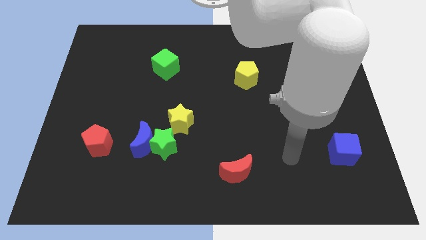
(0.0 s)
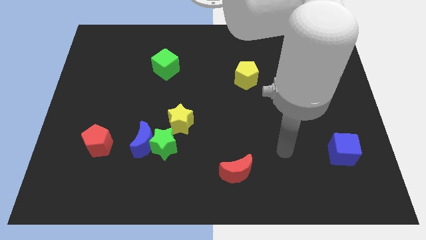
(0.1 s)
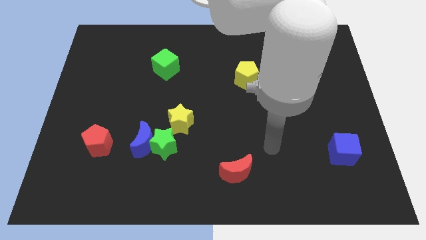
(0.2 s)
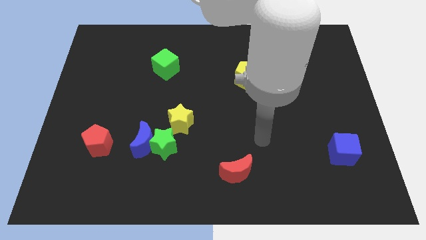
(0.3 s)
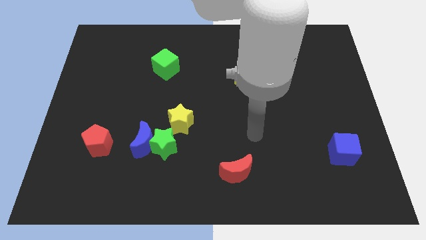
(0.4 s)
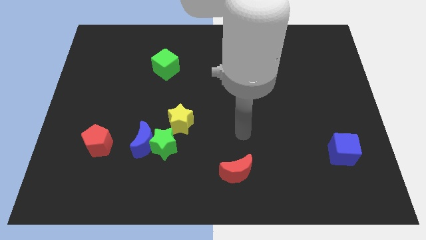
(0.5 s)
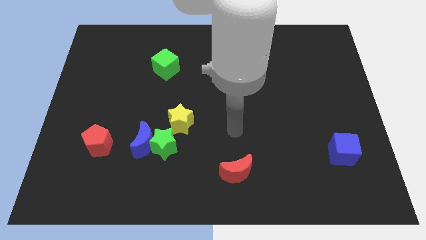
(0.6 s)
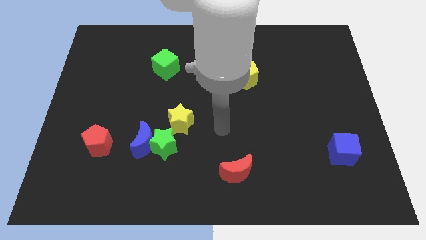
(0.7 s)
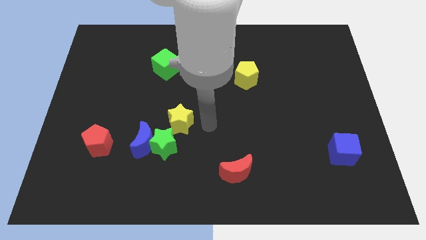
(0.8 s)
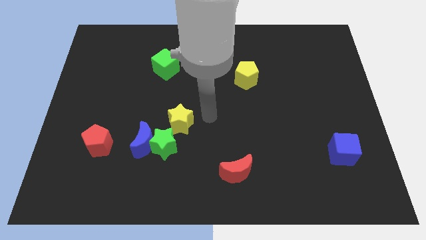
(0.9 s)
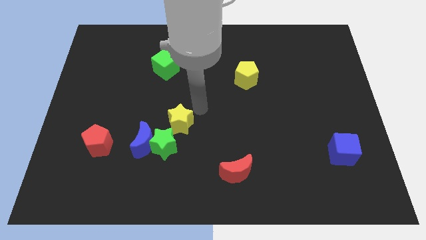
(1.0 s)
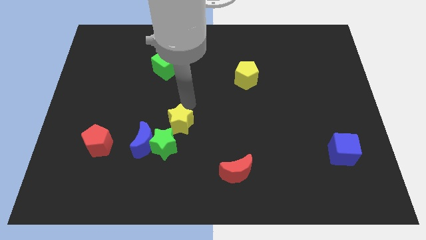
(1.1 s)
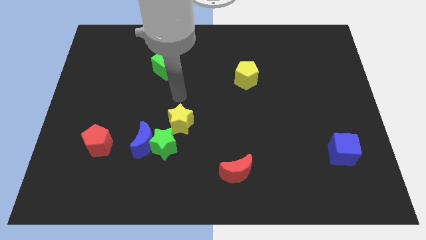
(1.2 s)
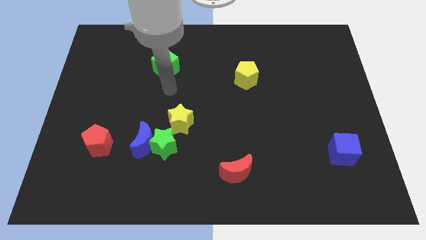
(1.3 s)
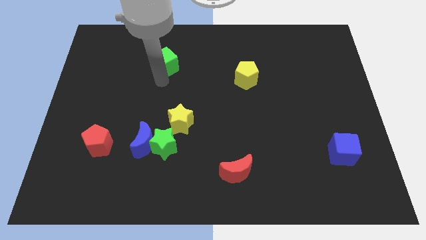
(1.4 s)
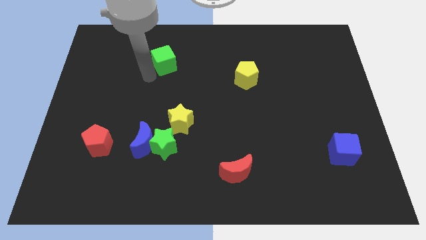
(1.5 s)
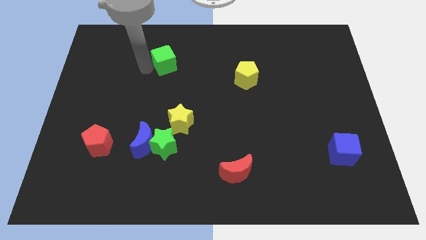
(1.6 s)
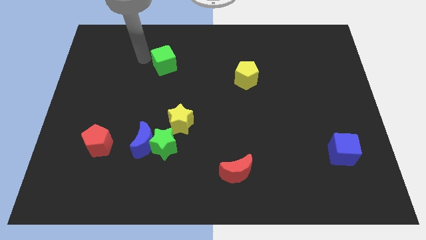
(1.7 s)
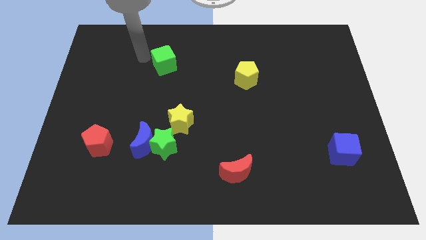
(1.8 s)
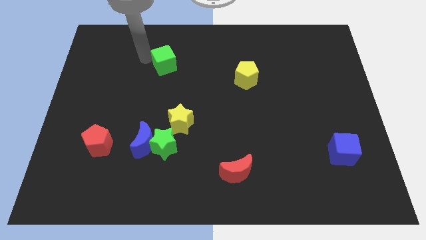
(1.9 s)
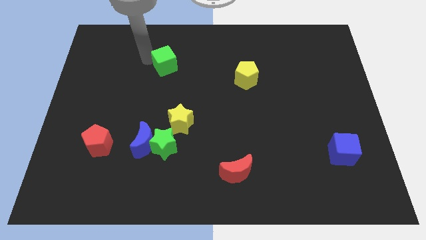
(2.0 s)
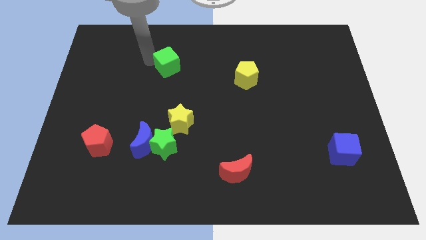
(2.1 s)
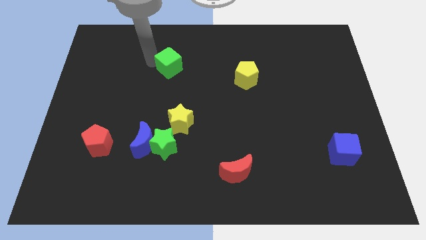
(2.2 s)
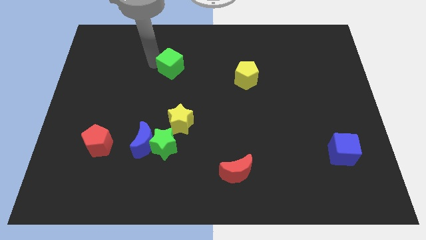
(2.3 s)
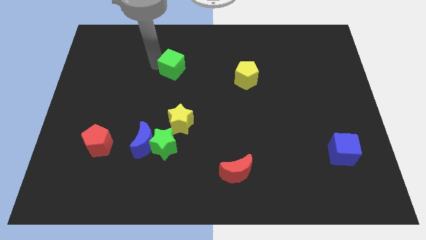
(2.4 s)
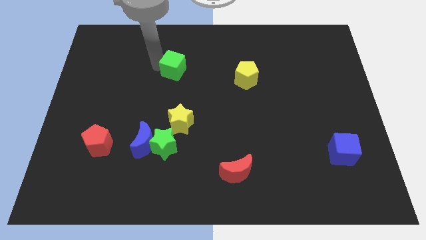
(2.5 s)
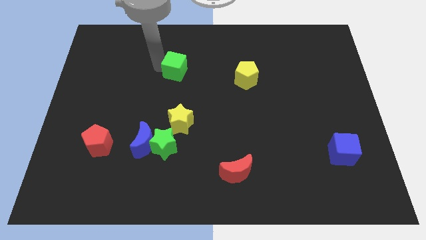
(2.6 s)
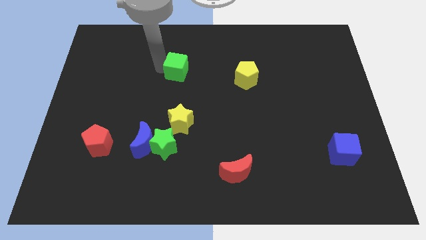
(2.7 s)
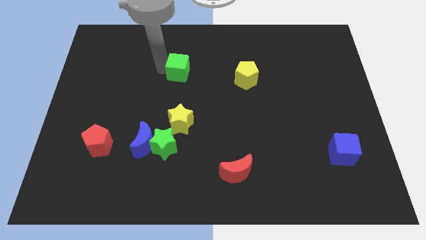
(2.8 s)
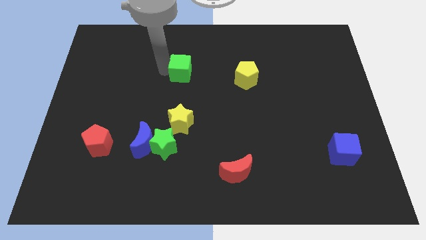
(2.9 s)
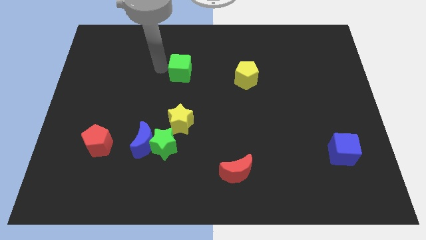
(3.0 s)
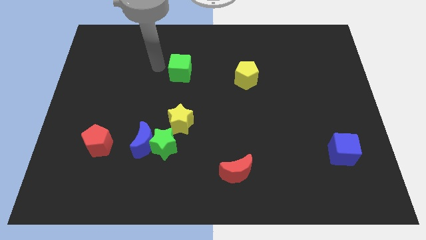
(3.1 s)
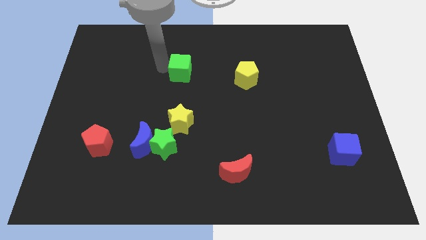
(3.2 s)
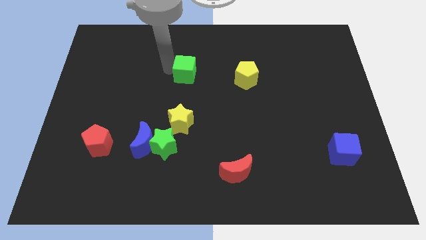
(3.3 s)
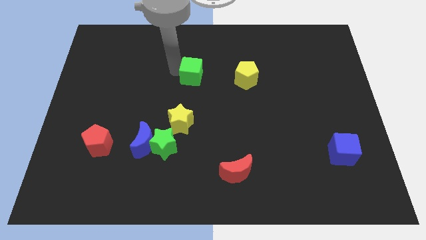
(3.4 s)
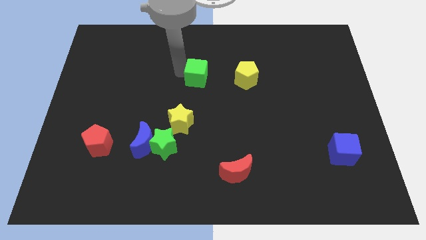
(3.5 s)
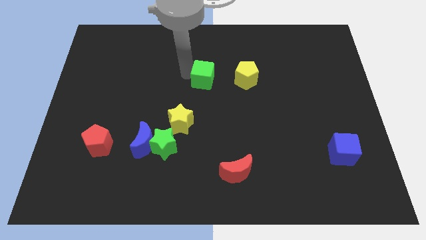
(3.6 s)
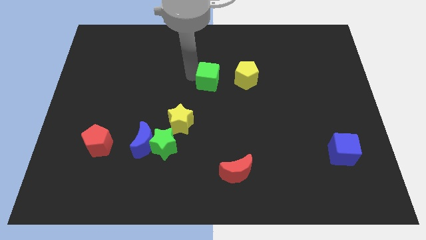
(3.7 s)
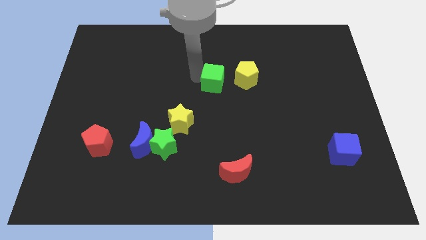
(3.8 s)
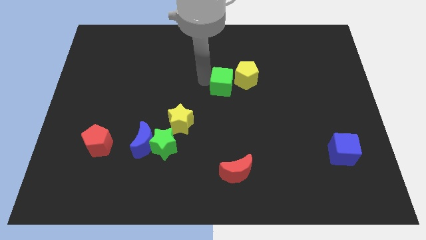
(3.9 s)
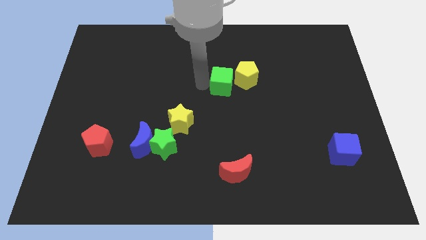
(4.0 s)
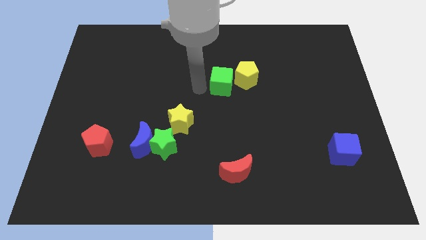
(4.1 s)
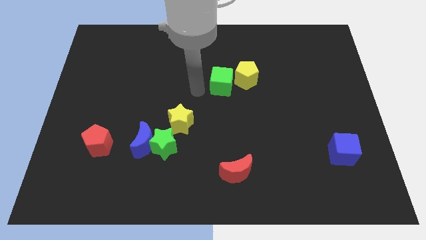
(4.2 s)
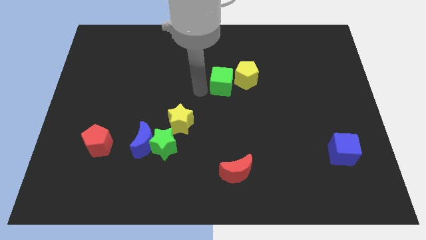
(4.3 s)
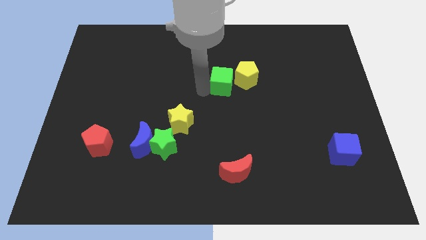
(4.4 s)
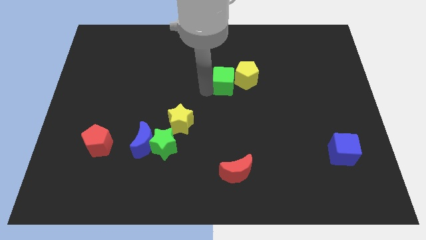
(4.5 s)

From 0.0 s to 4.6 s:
push the green cube close to the yellow pentagon

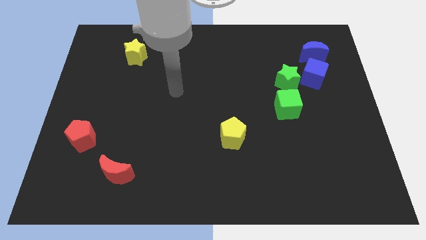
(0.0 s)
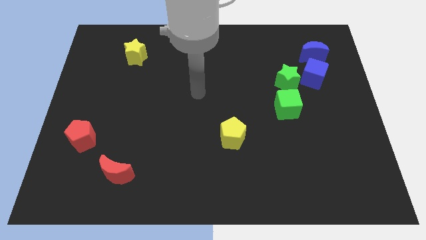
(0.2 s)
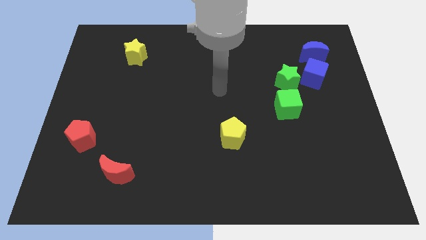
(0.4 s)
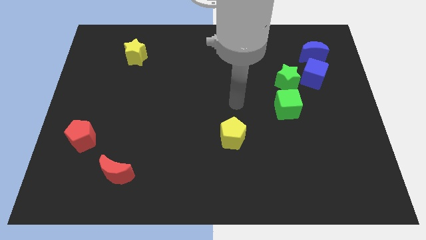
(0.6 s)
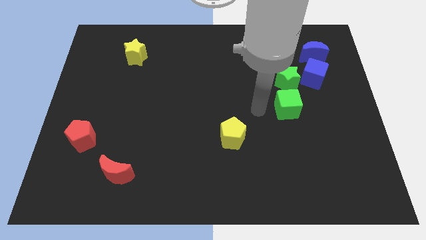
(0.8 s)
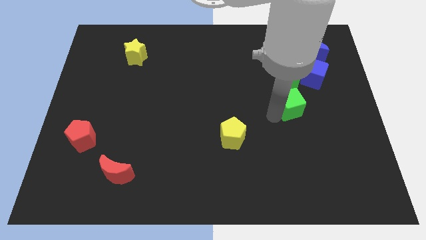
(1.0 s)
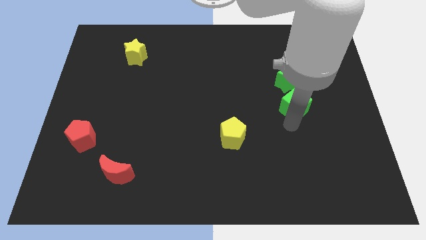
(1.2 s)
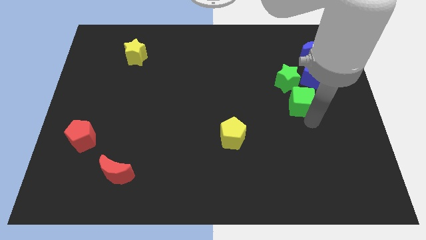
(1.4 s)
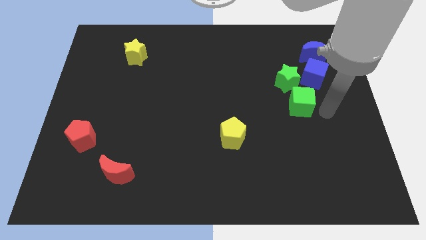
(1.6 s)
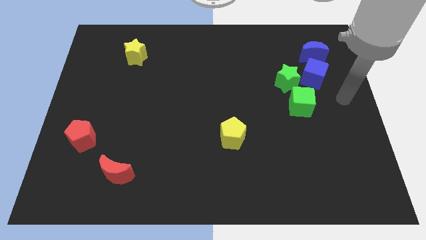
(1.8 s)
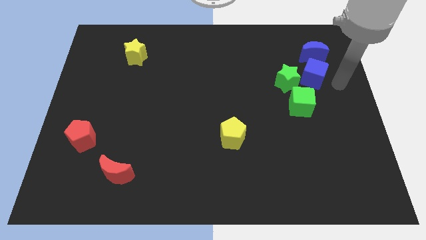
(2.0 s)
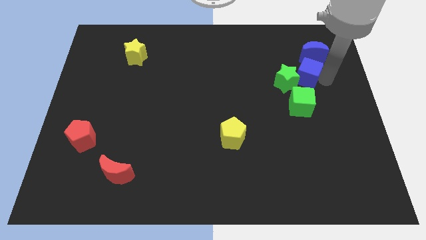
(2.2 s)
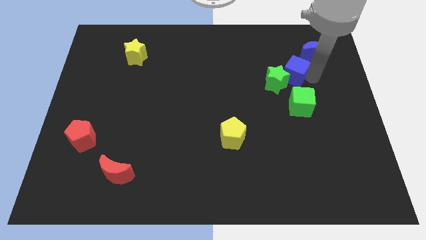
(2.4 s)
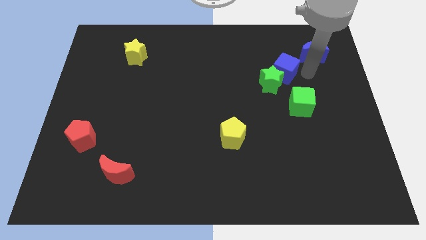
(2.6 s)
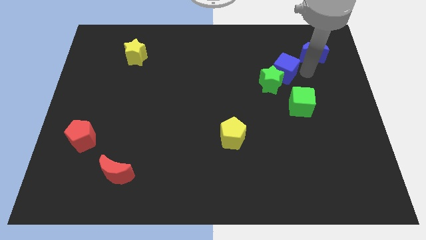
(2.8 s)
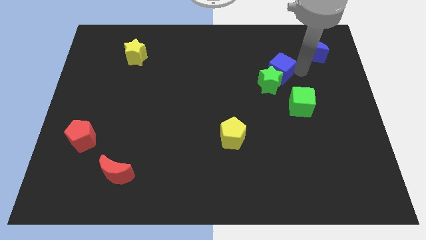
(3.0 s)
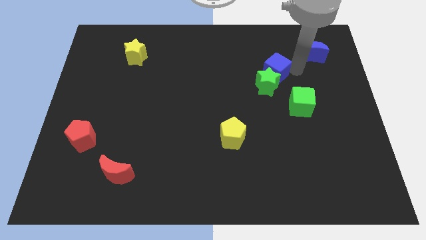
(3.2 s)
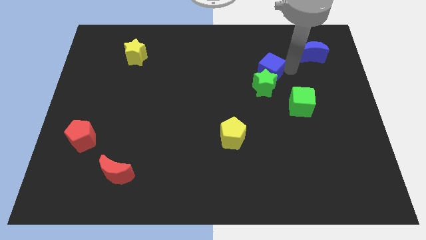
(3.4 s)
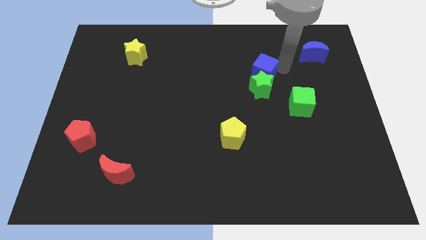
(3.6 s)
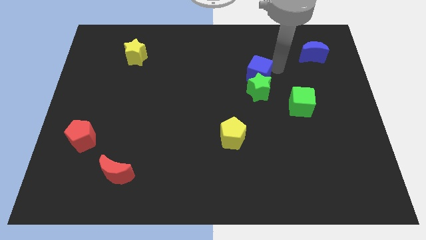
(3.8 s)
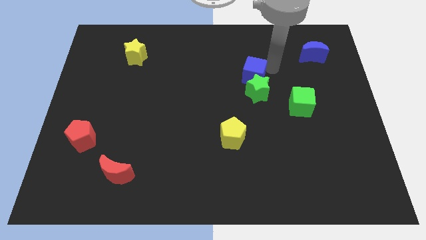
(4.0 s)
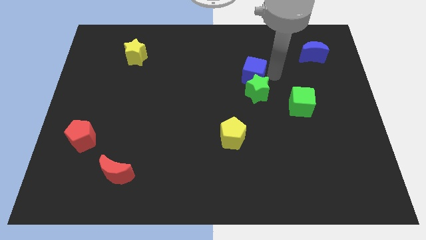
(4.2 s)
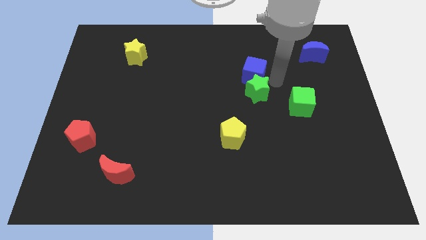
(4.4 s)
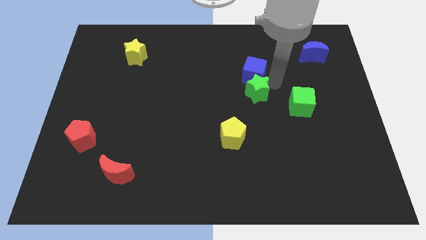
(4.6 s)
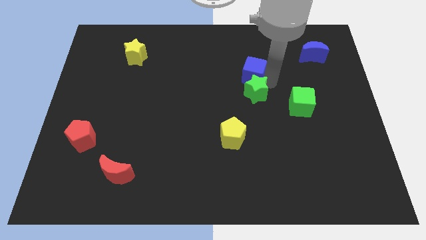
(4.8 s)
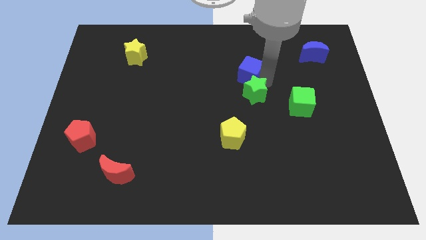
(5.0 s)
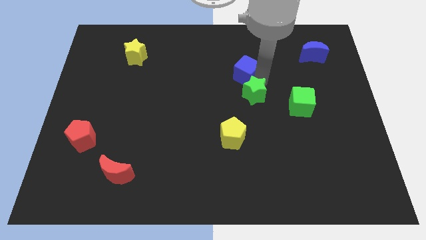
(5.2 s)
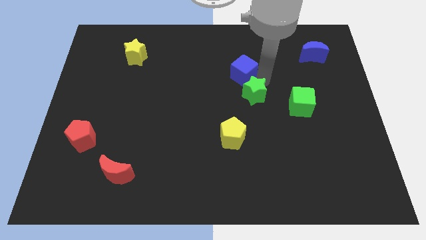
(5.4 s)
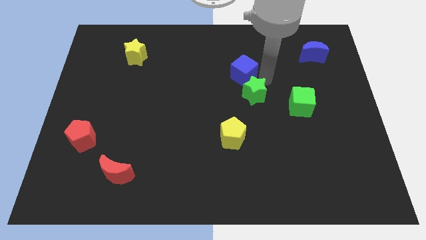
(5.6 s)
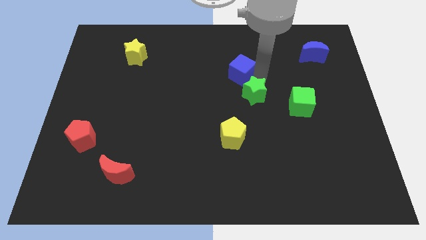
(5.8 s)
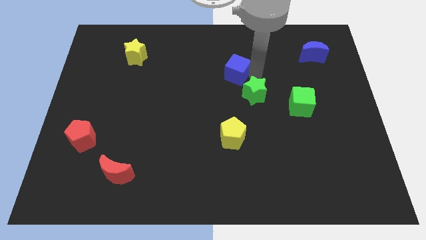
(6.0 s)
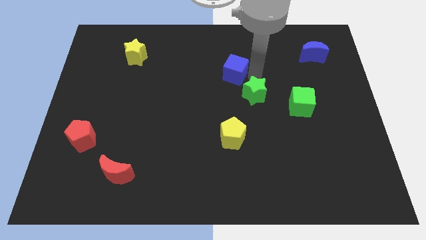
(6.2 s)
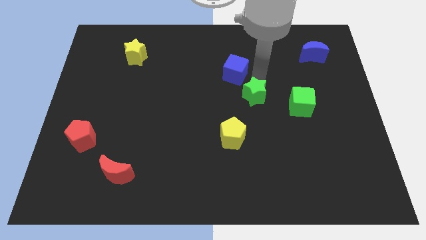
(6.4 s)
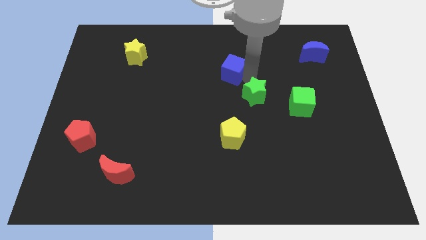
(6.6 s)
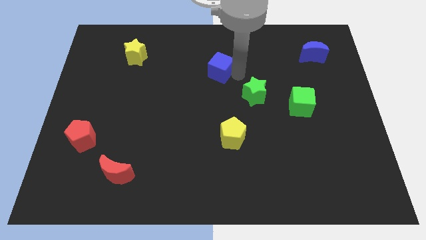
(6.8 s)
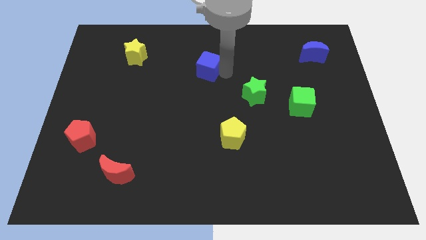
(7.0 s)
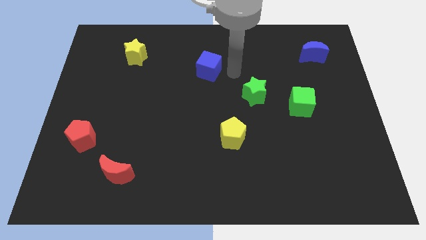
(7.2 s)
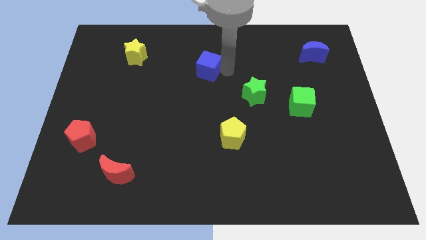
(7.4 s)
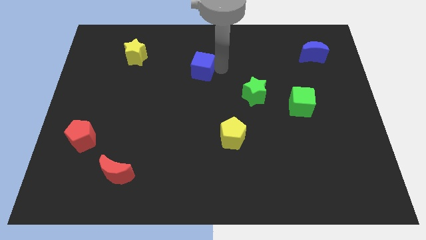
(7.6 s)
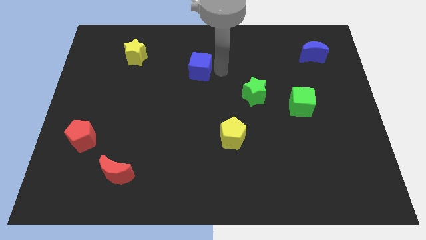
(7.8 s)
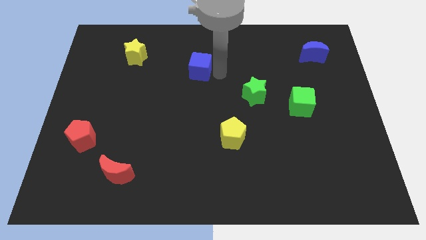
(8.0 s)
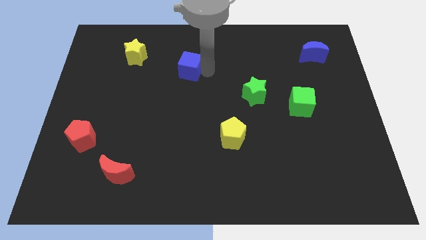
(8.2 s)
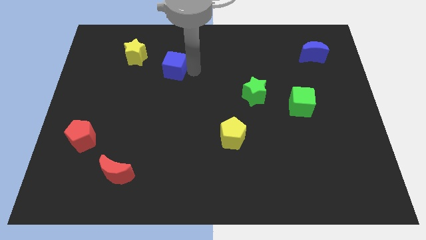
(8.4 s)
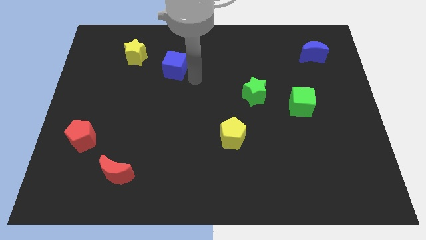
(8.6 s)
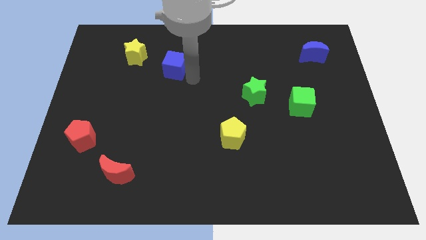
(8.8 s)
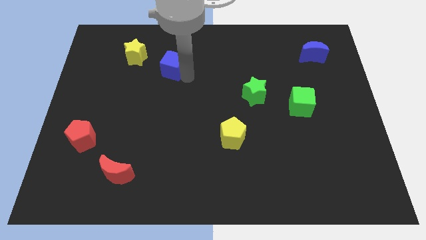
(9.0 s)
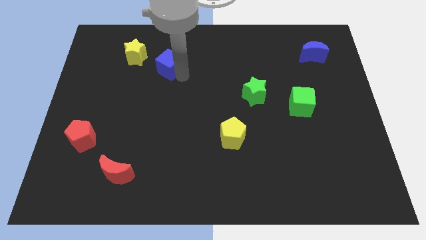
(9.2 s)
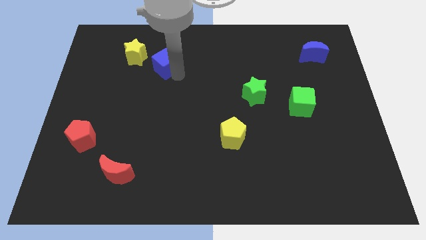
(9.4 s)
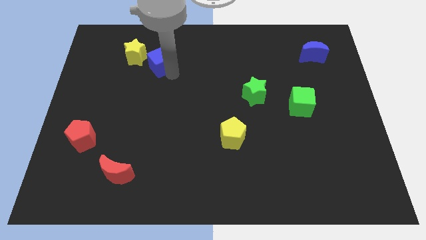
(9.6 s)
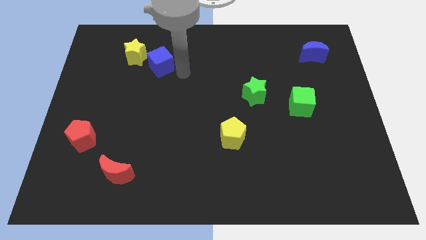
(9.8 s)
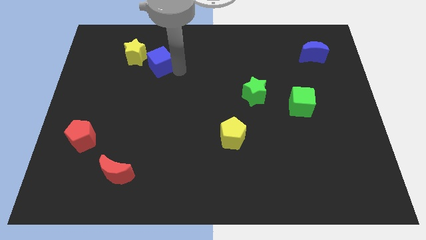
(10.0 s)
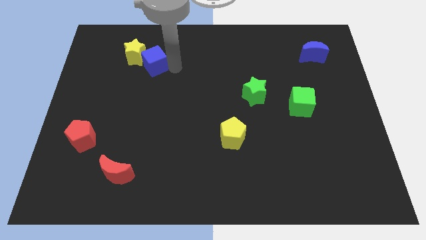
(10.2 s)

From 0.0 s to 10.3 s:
push the blue cube next to the yellow star
